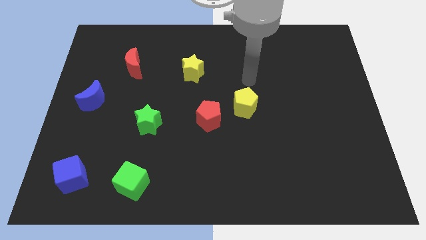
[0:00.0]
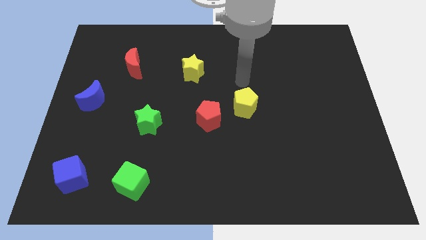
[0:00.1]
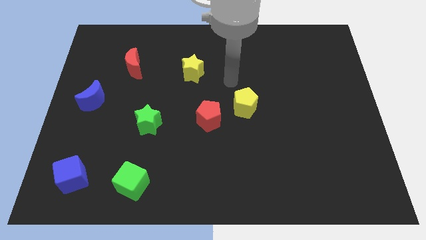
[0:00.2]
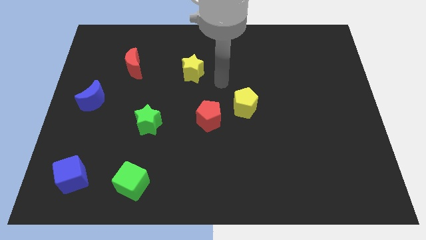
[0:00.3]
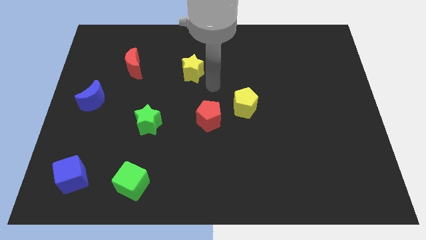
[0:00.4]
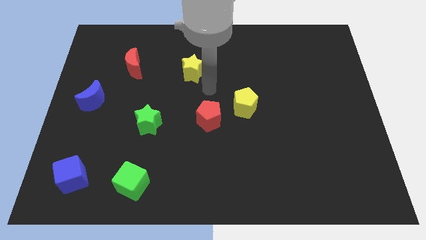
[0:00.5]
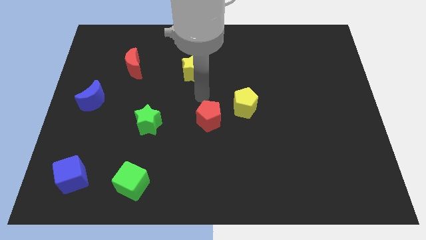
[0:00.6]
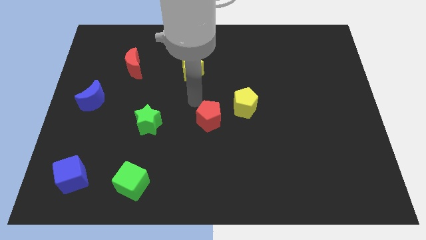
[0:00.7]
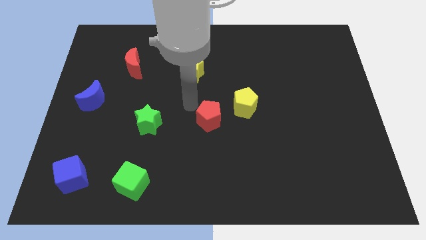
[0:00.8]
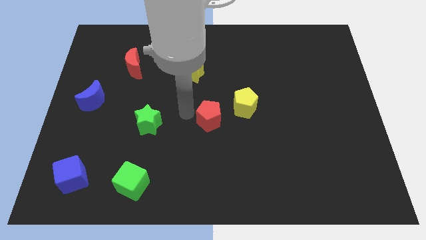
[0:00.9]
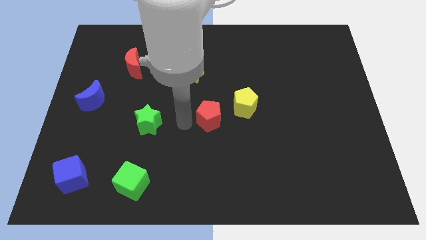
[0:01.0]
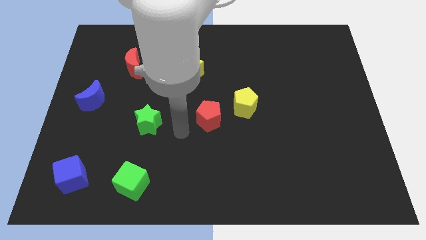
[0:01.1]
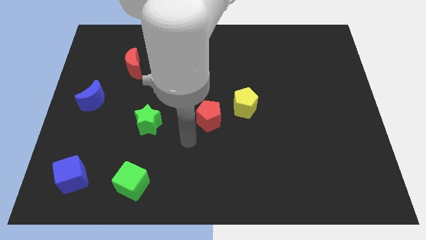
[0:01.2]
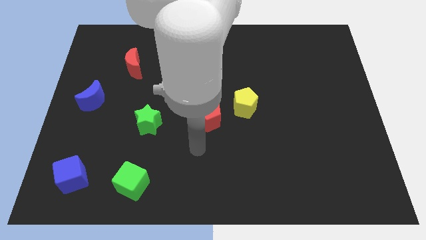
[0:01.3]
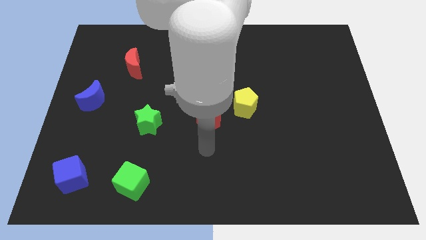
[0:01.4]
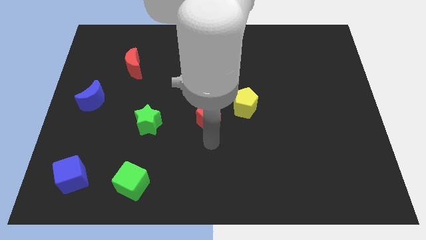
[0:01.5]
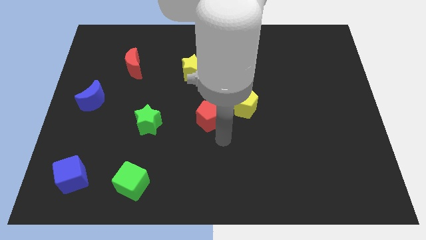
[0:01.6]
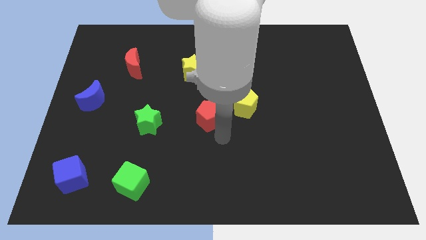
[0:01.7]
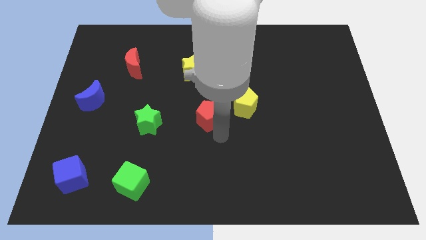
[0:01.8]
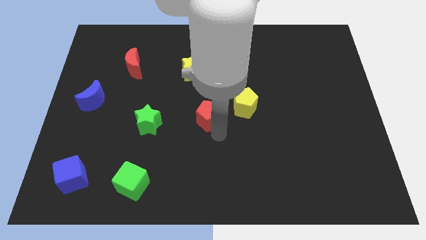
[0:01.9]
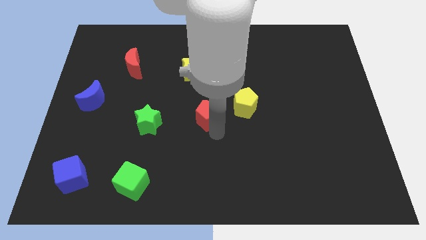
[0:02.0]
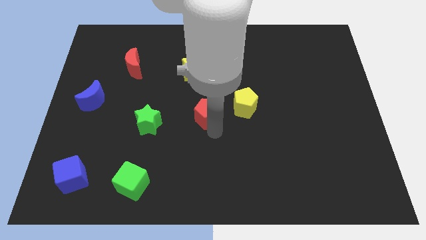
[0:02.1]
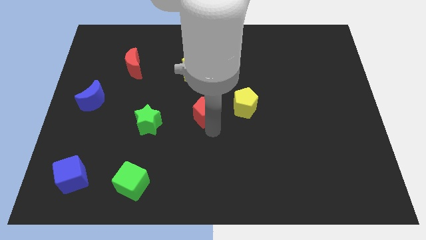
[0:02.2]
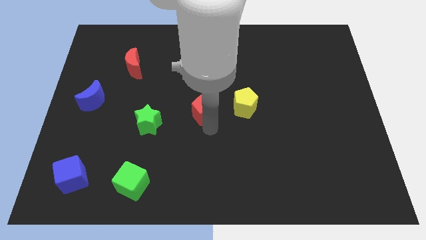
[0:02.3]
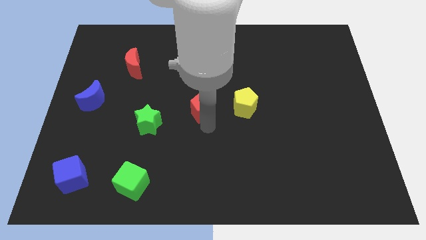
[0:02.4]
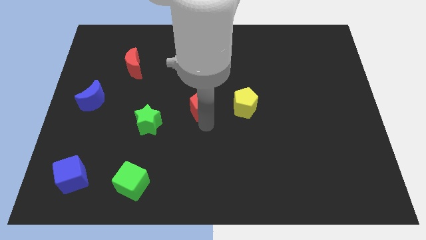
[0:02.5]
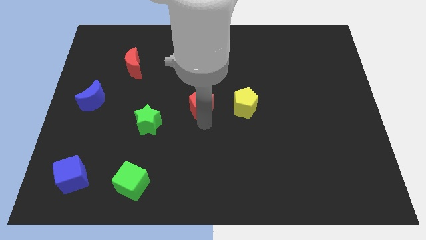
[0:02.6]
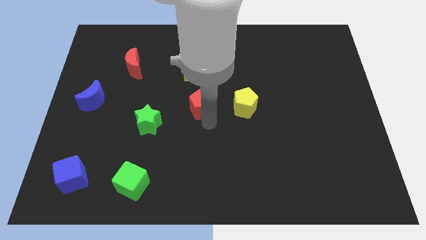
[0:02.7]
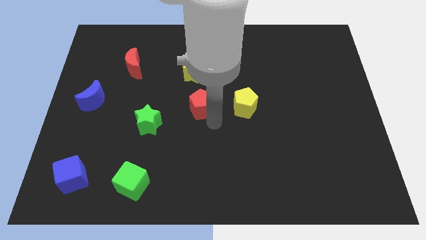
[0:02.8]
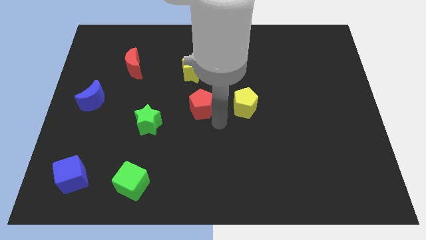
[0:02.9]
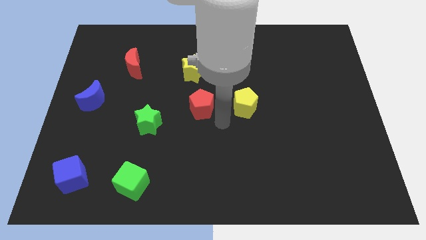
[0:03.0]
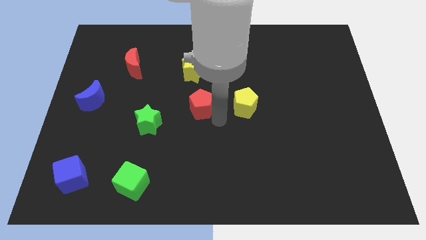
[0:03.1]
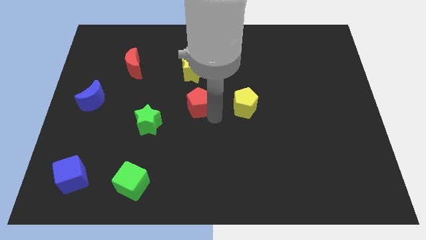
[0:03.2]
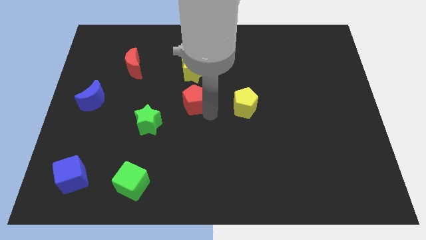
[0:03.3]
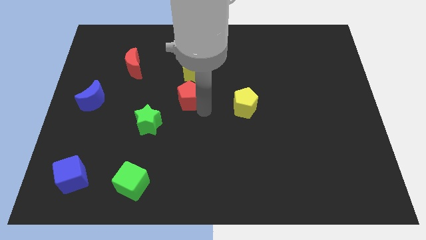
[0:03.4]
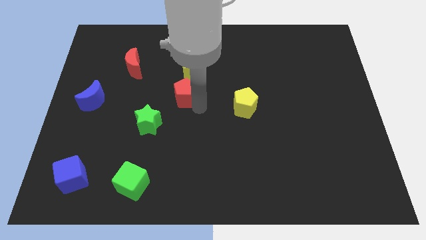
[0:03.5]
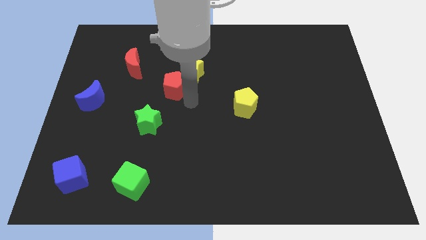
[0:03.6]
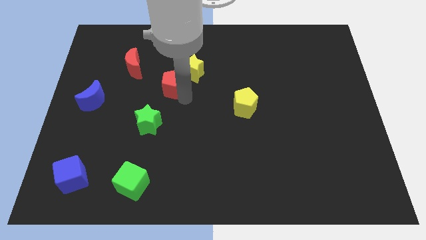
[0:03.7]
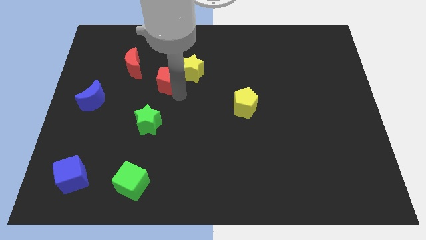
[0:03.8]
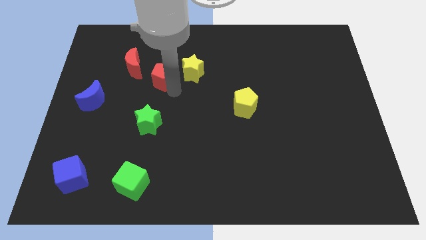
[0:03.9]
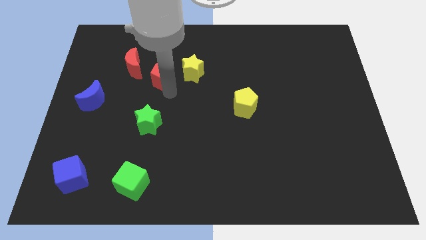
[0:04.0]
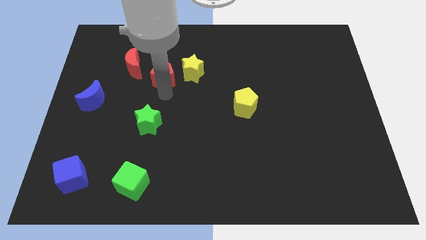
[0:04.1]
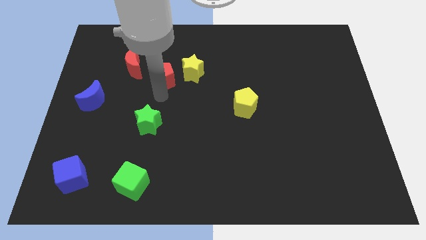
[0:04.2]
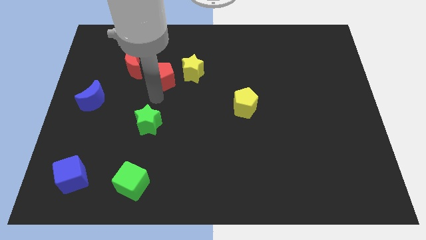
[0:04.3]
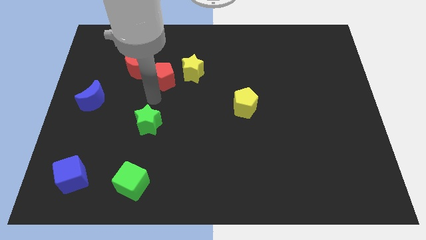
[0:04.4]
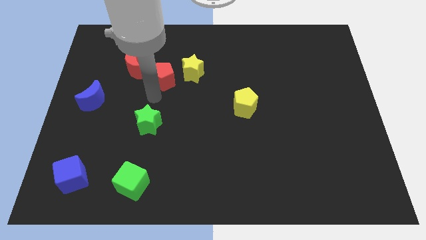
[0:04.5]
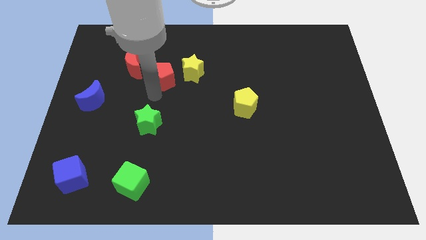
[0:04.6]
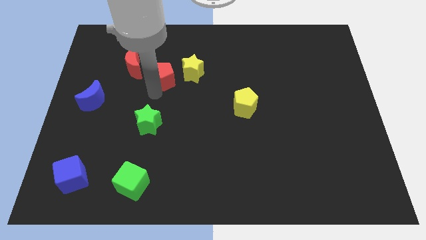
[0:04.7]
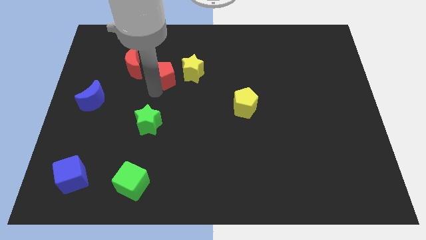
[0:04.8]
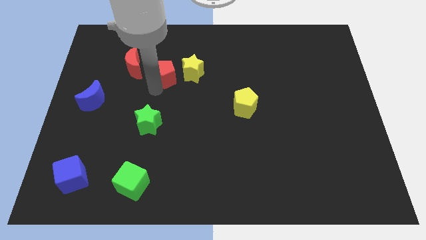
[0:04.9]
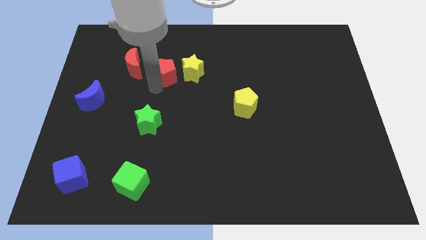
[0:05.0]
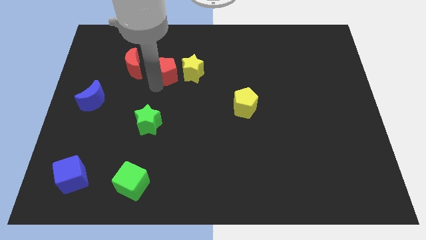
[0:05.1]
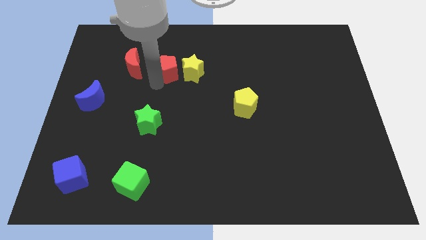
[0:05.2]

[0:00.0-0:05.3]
slide the red pentagon diagonally up and to the left of the yellow star

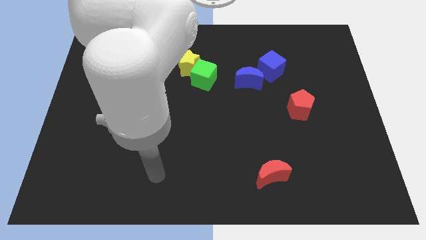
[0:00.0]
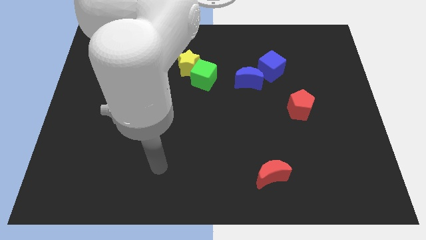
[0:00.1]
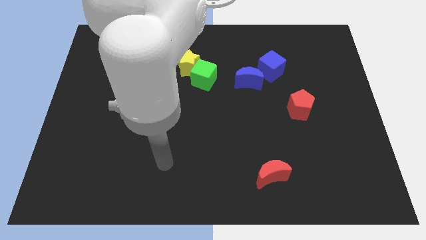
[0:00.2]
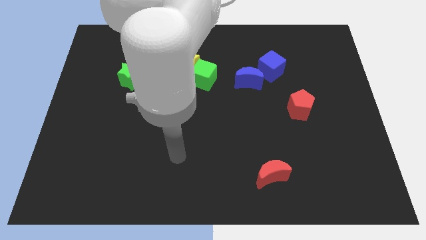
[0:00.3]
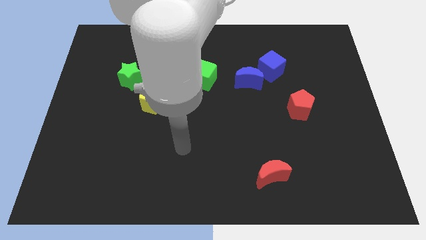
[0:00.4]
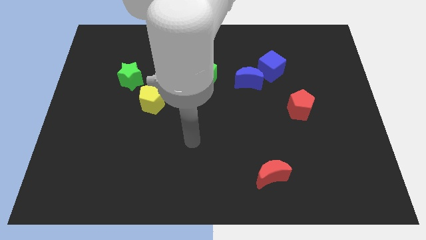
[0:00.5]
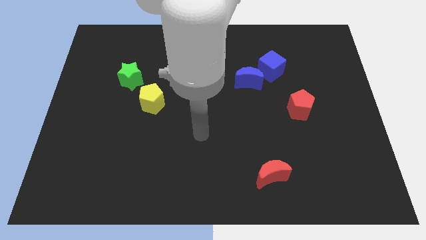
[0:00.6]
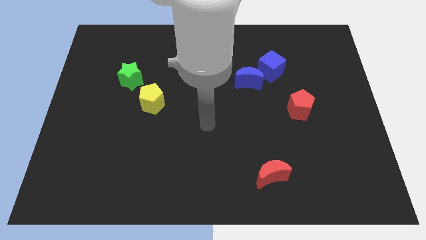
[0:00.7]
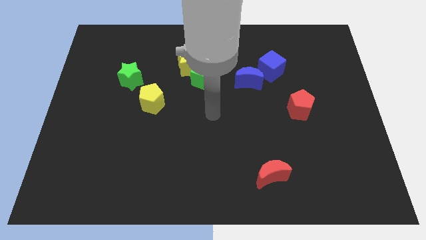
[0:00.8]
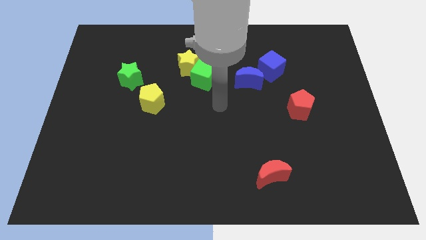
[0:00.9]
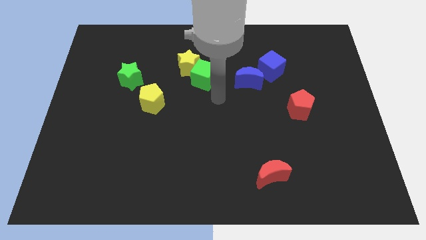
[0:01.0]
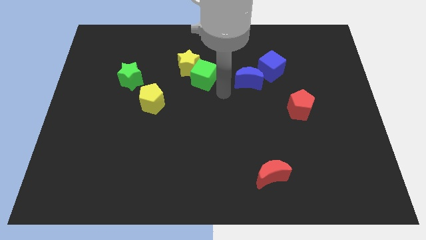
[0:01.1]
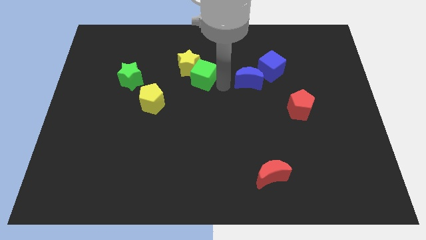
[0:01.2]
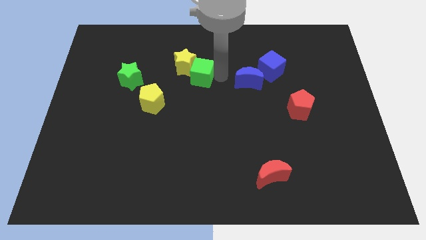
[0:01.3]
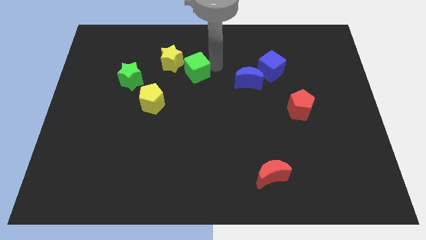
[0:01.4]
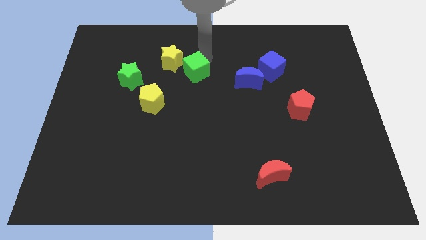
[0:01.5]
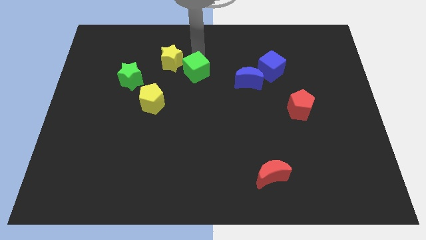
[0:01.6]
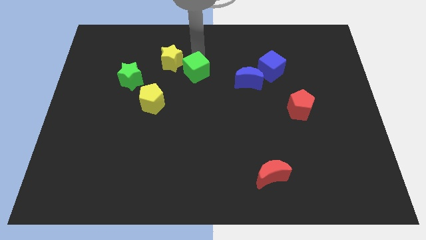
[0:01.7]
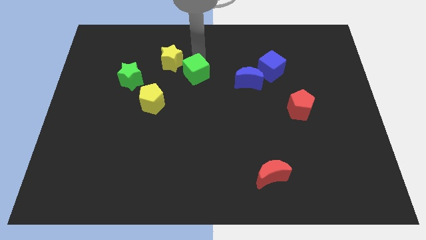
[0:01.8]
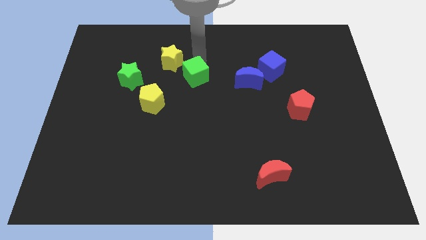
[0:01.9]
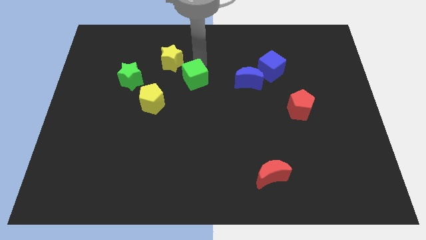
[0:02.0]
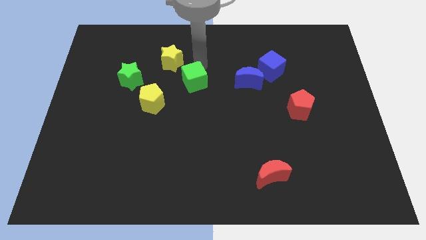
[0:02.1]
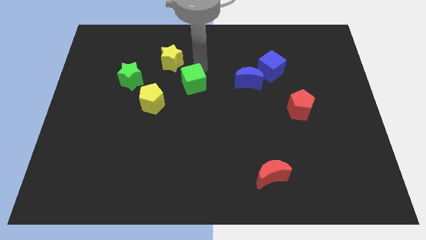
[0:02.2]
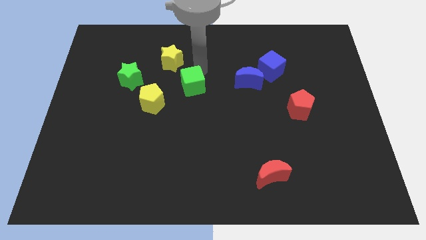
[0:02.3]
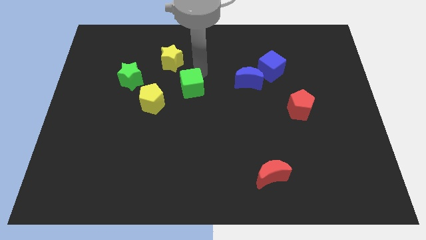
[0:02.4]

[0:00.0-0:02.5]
slide the green cube right of the yellow pentagon
